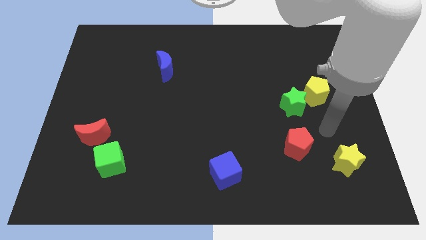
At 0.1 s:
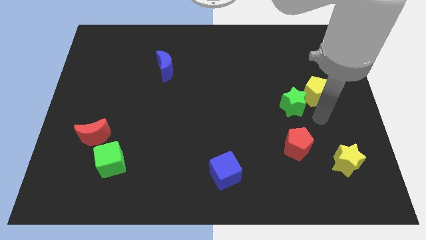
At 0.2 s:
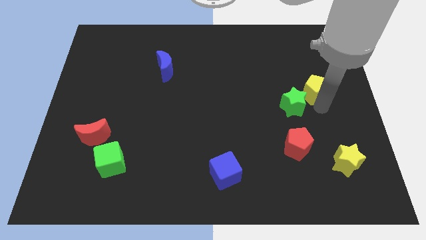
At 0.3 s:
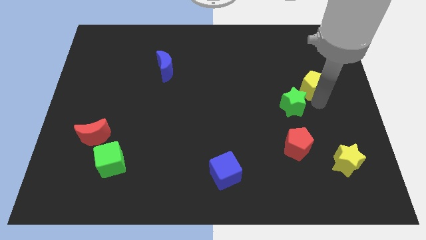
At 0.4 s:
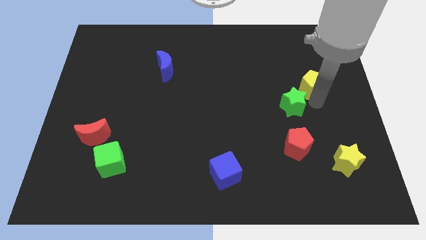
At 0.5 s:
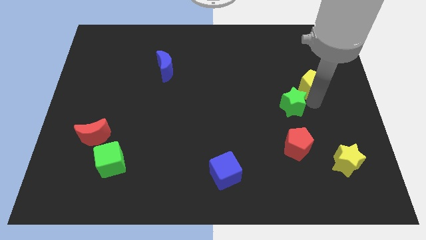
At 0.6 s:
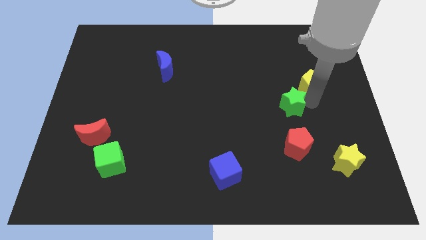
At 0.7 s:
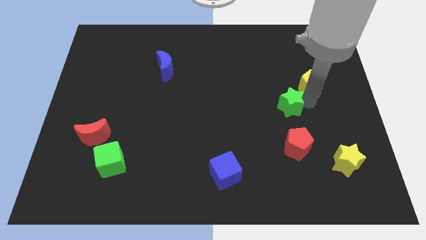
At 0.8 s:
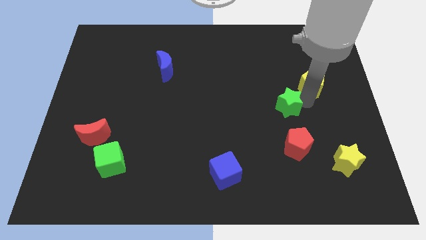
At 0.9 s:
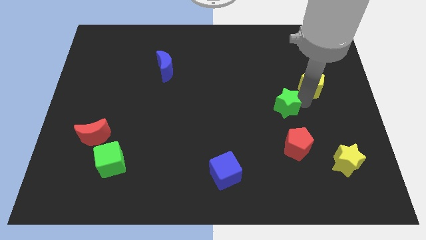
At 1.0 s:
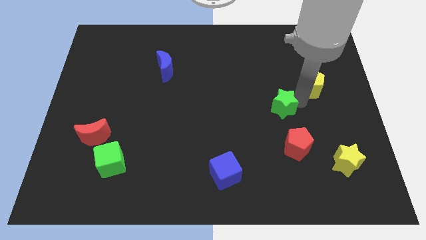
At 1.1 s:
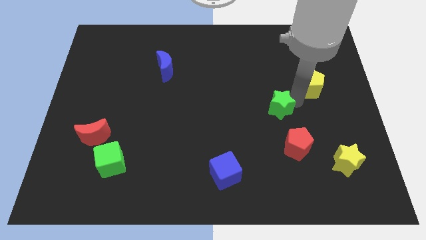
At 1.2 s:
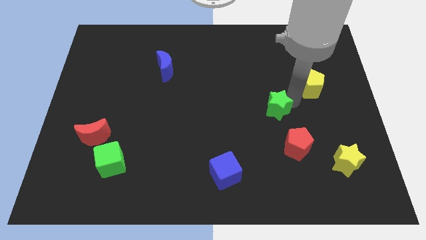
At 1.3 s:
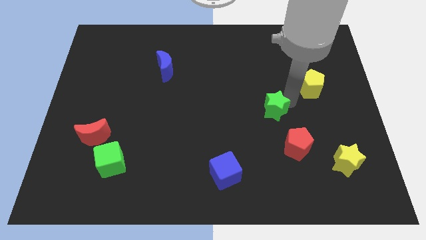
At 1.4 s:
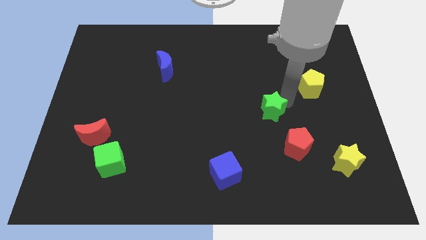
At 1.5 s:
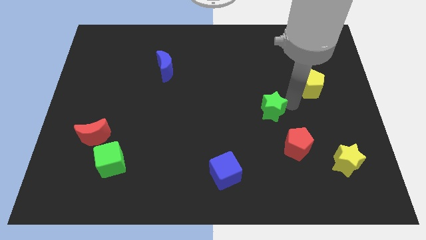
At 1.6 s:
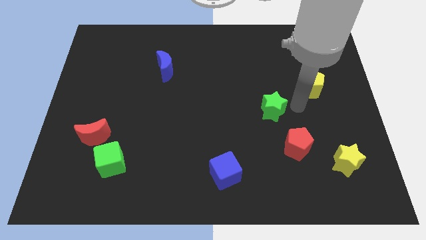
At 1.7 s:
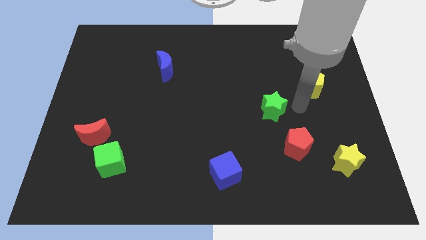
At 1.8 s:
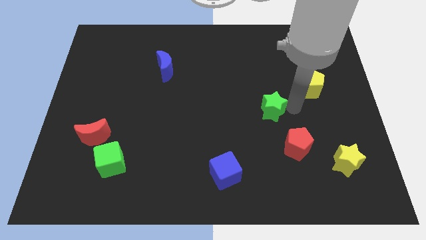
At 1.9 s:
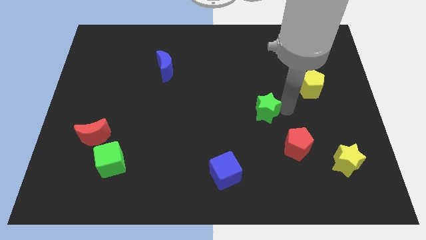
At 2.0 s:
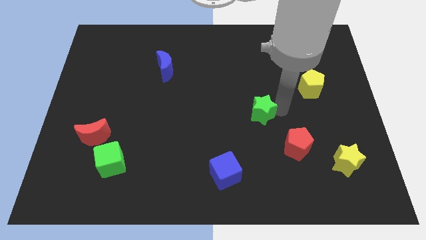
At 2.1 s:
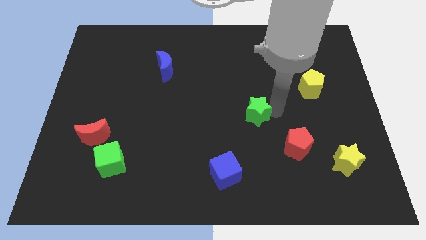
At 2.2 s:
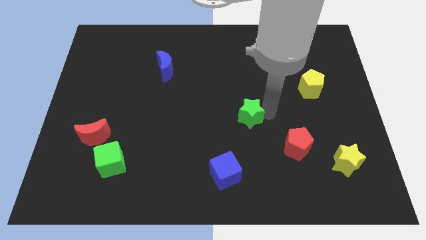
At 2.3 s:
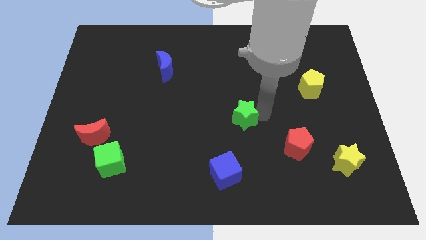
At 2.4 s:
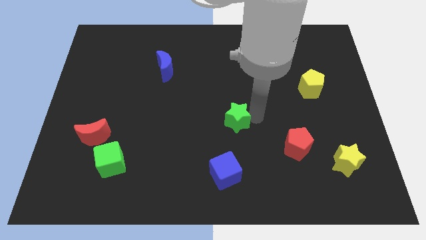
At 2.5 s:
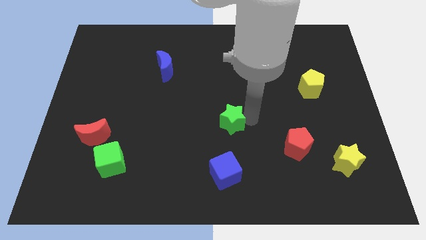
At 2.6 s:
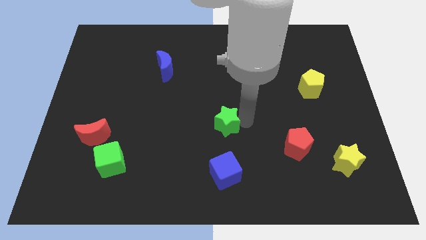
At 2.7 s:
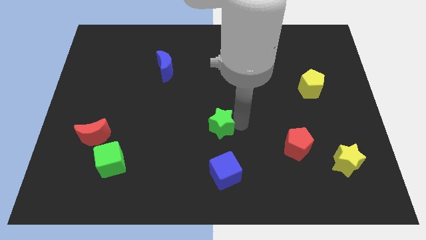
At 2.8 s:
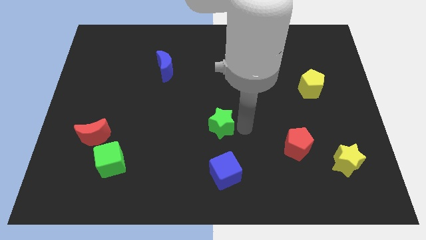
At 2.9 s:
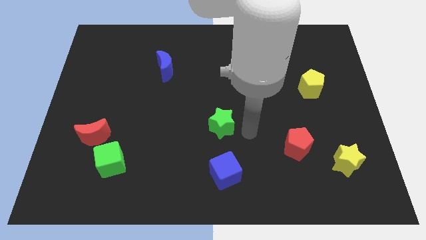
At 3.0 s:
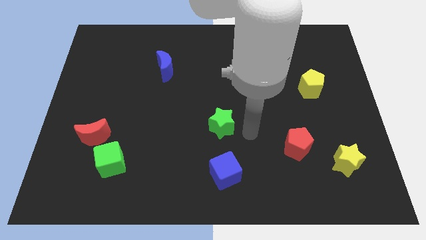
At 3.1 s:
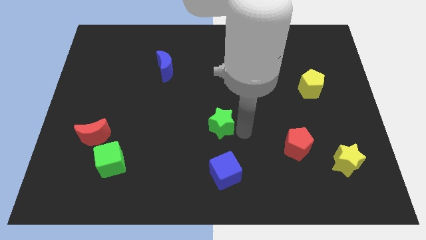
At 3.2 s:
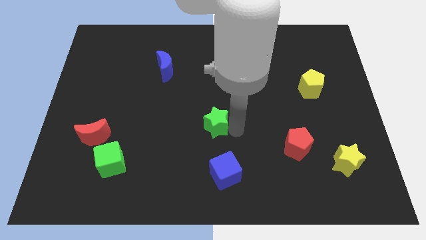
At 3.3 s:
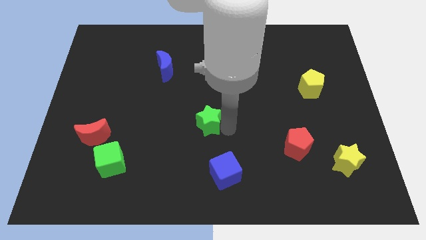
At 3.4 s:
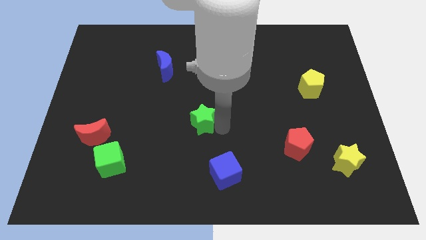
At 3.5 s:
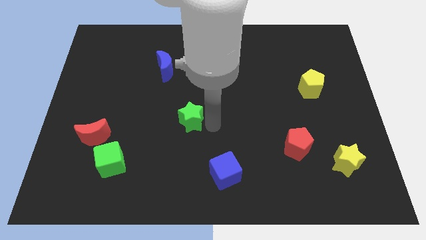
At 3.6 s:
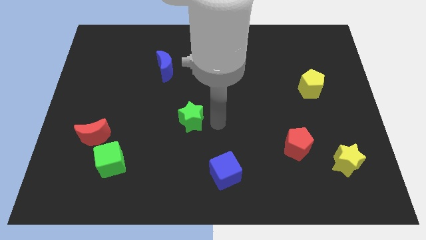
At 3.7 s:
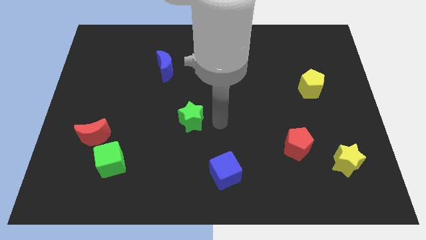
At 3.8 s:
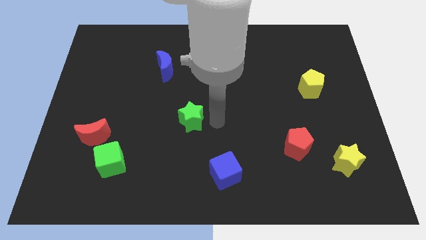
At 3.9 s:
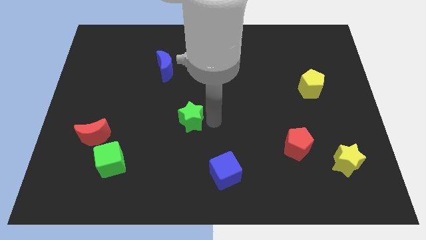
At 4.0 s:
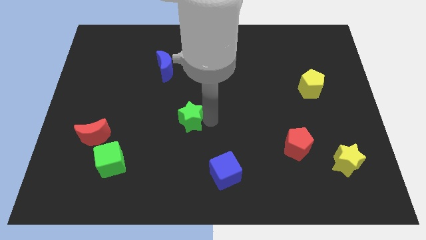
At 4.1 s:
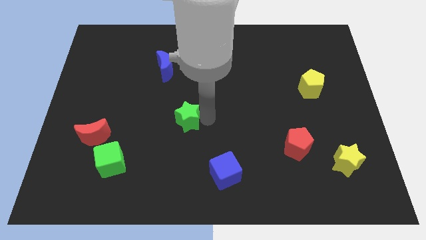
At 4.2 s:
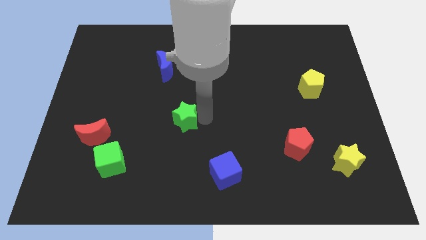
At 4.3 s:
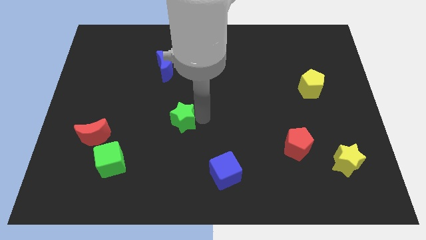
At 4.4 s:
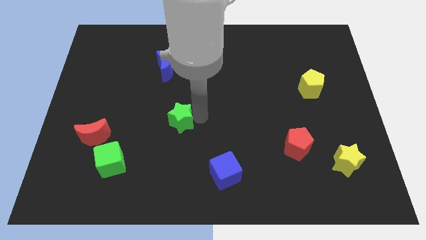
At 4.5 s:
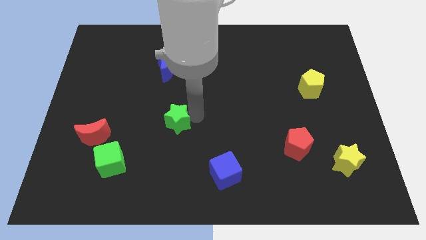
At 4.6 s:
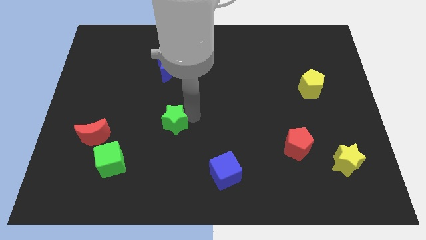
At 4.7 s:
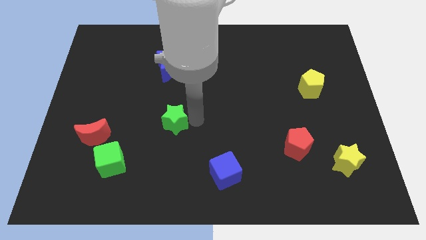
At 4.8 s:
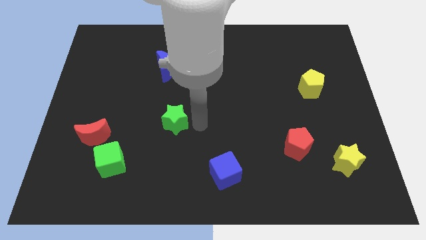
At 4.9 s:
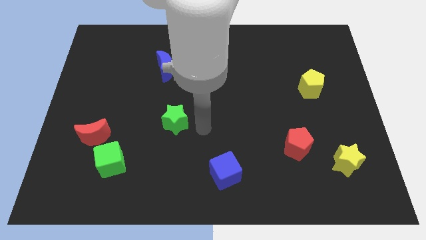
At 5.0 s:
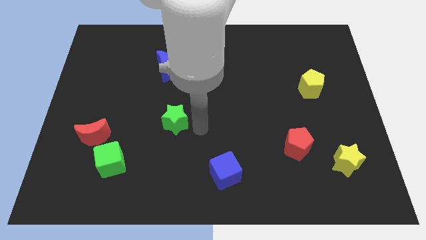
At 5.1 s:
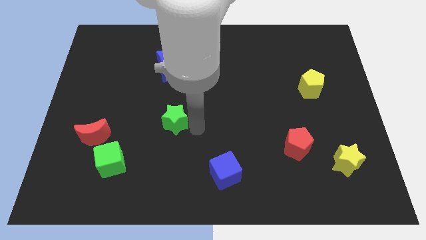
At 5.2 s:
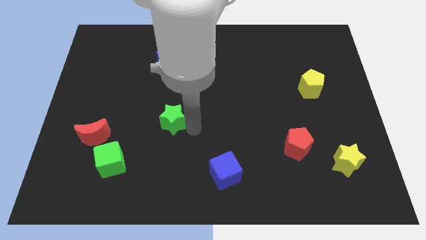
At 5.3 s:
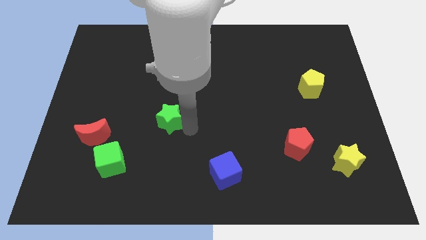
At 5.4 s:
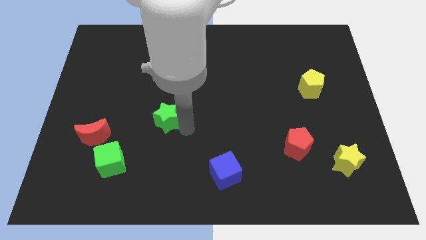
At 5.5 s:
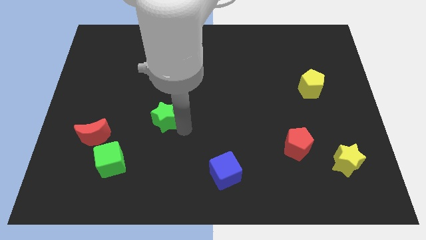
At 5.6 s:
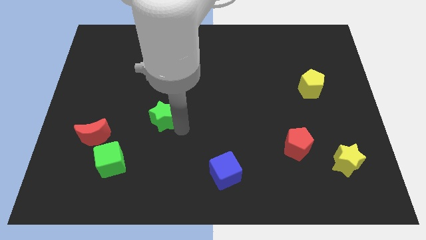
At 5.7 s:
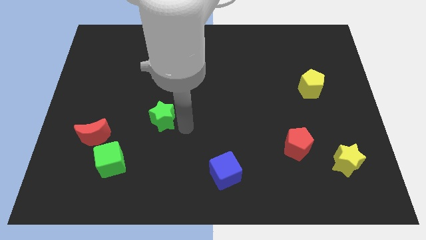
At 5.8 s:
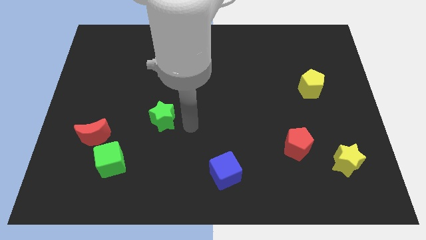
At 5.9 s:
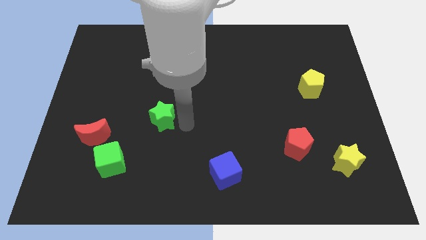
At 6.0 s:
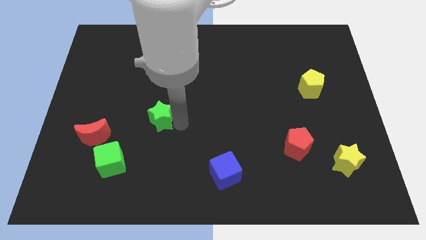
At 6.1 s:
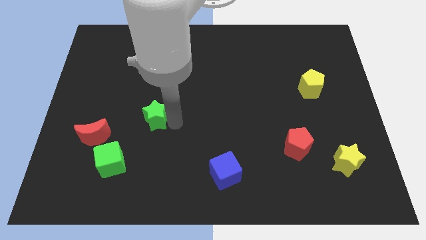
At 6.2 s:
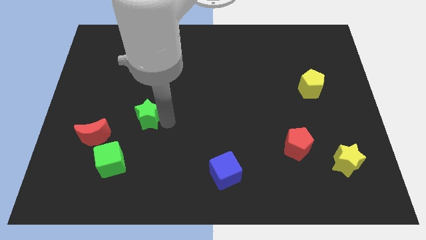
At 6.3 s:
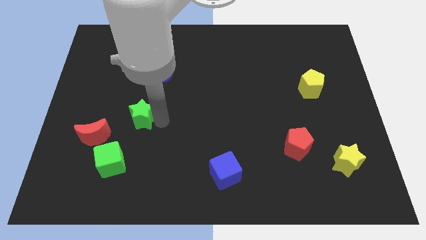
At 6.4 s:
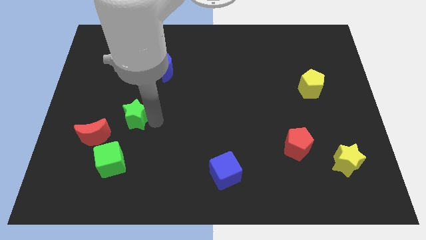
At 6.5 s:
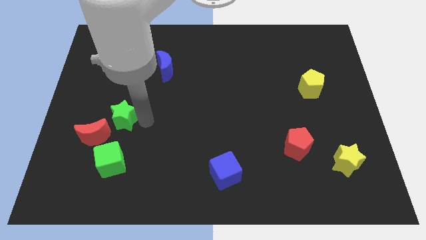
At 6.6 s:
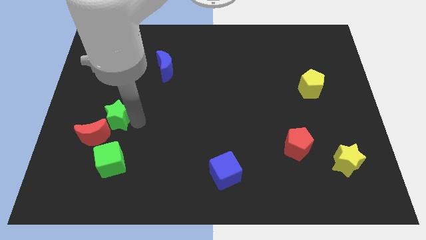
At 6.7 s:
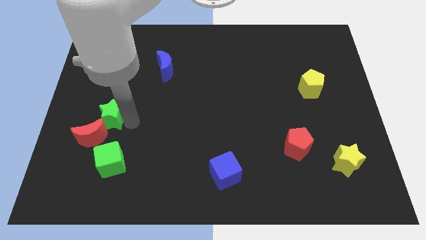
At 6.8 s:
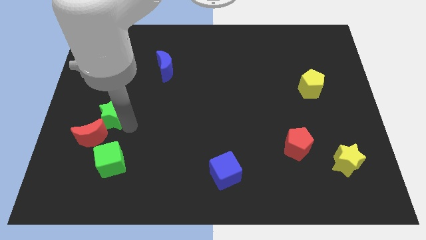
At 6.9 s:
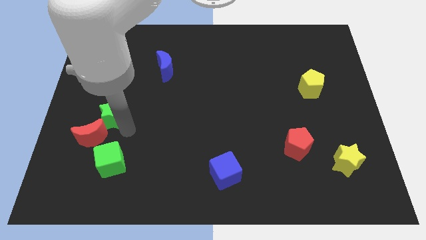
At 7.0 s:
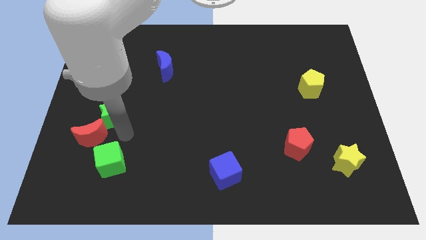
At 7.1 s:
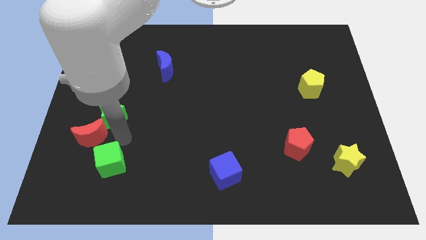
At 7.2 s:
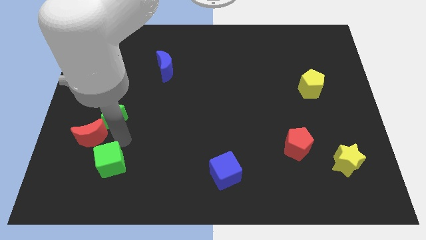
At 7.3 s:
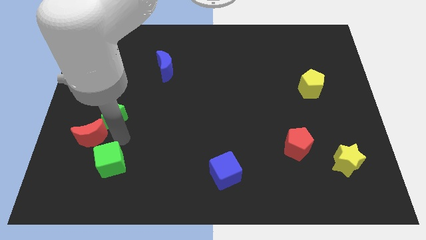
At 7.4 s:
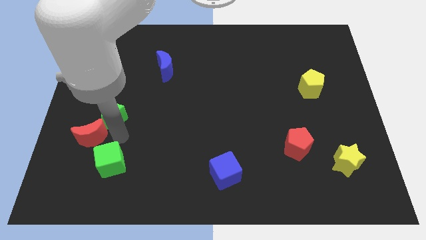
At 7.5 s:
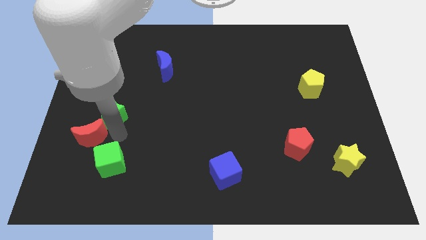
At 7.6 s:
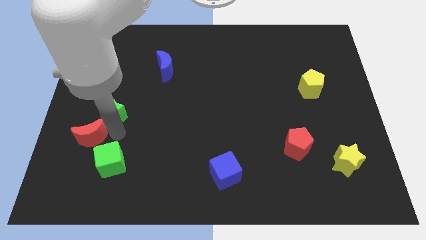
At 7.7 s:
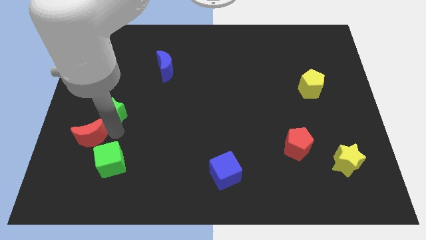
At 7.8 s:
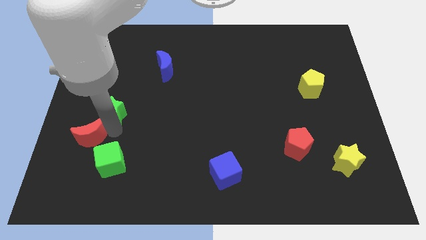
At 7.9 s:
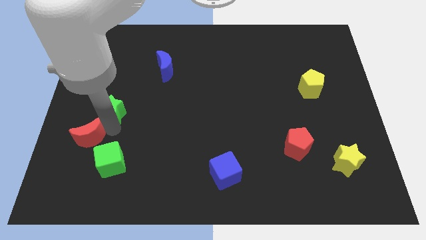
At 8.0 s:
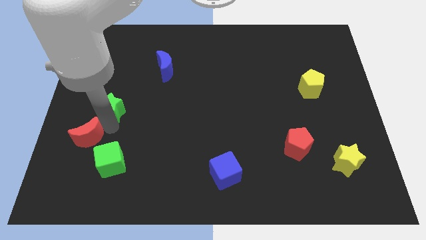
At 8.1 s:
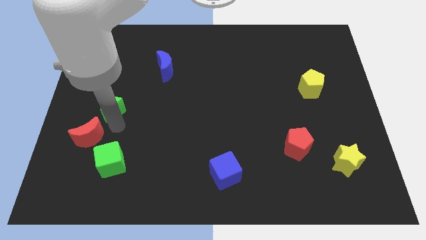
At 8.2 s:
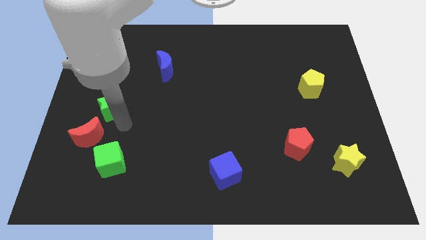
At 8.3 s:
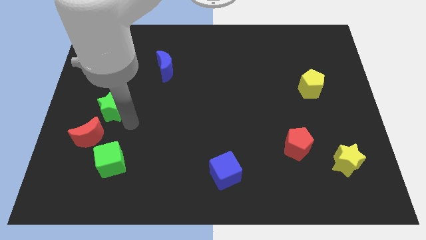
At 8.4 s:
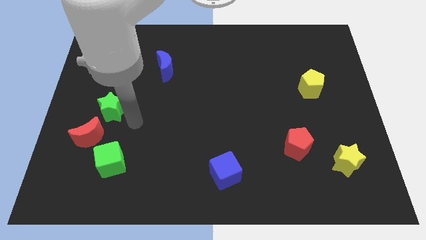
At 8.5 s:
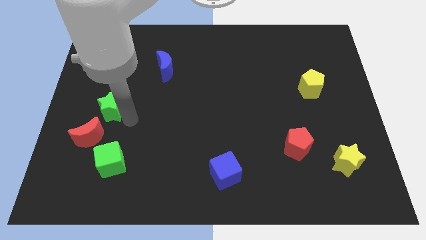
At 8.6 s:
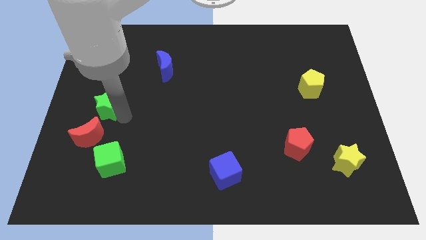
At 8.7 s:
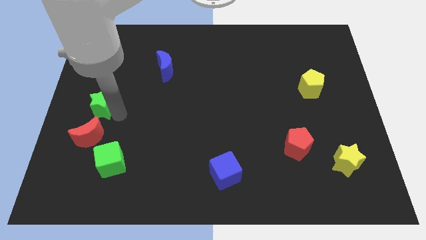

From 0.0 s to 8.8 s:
move the green star to the left side
